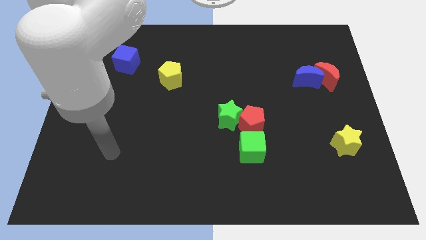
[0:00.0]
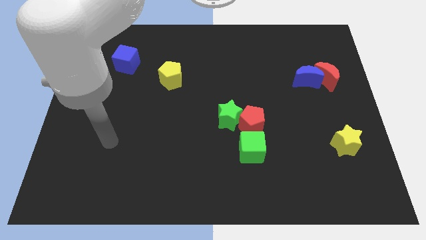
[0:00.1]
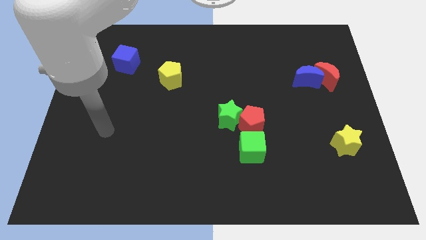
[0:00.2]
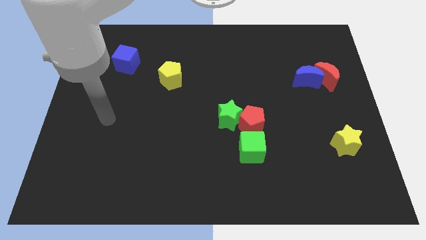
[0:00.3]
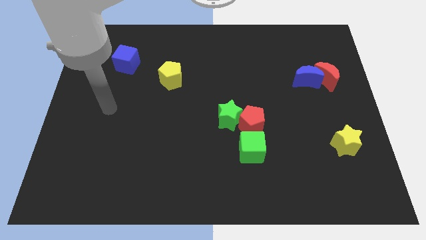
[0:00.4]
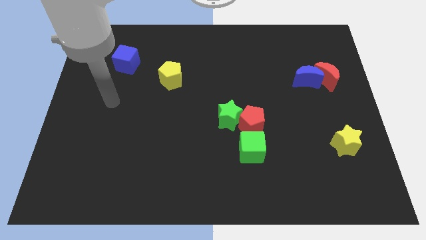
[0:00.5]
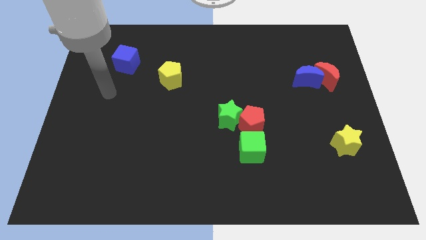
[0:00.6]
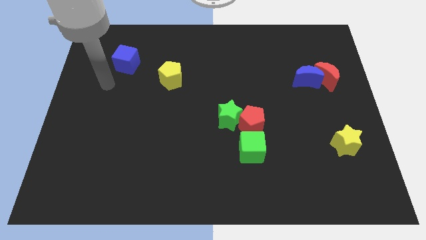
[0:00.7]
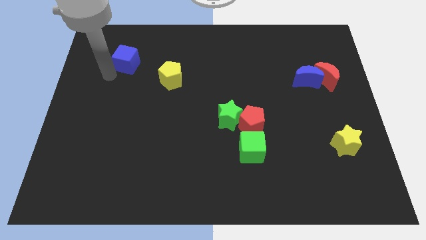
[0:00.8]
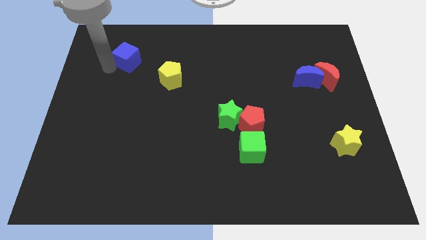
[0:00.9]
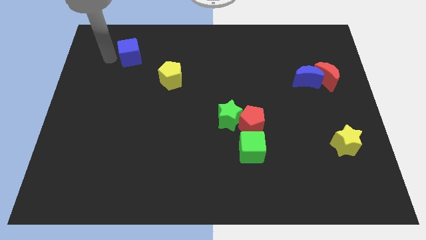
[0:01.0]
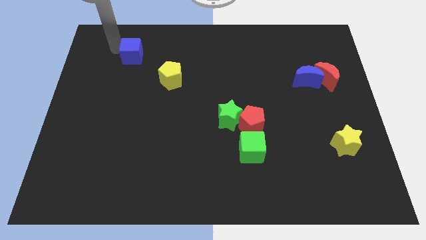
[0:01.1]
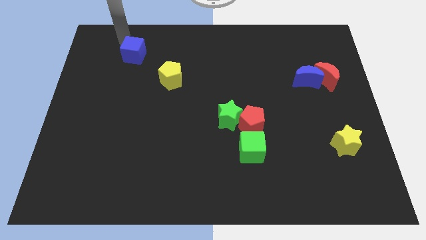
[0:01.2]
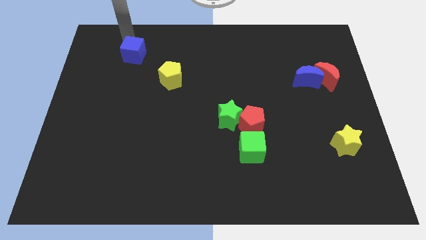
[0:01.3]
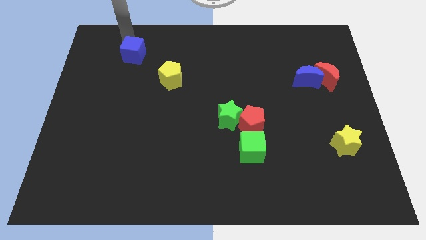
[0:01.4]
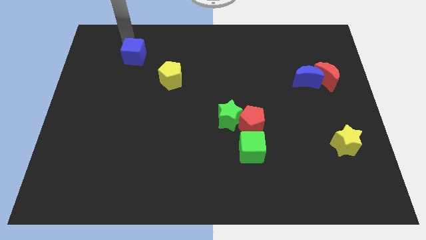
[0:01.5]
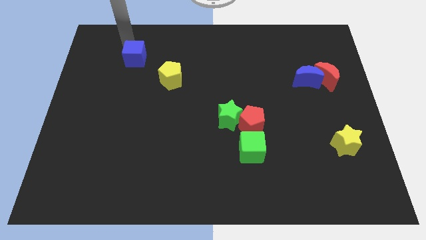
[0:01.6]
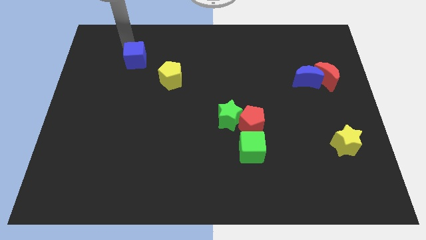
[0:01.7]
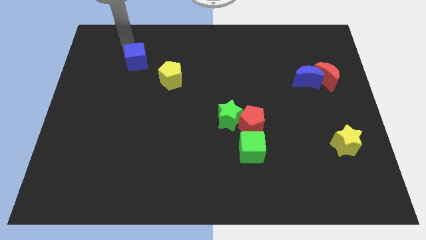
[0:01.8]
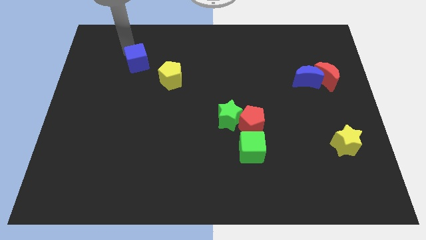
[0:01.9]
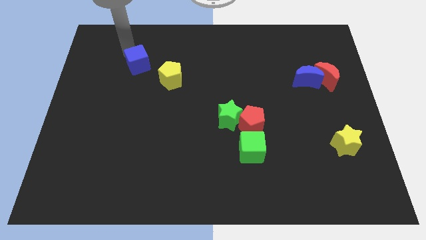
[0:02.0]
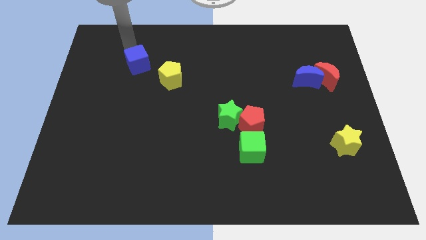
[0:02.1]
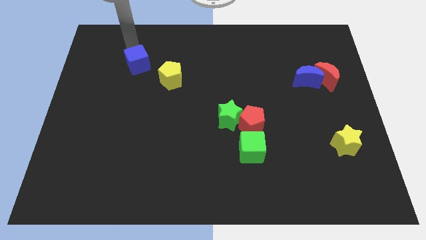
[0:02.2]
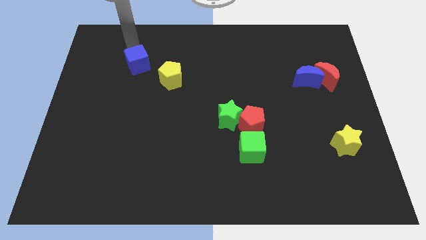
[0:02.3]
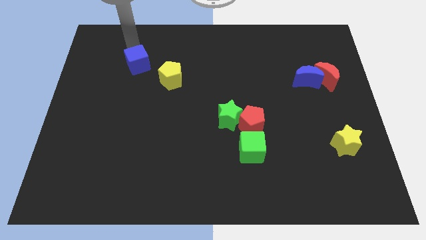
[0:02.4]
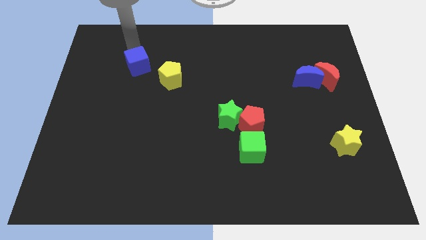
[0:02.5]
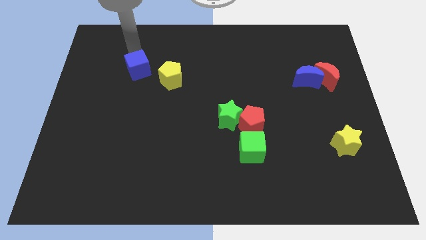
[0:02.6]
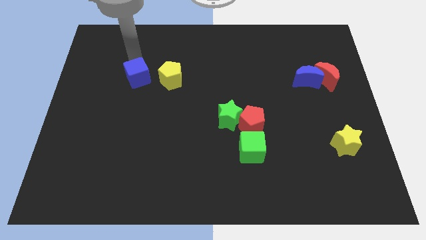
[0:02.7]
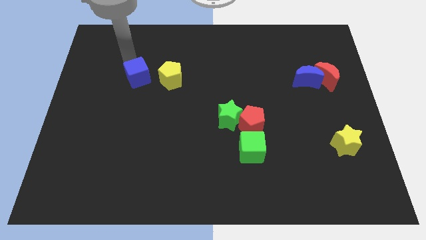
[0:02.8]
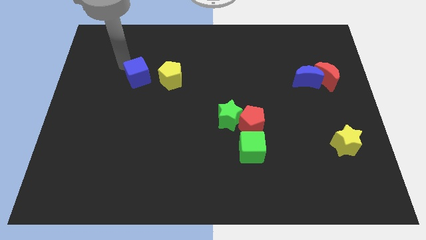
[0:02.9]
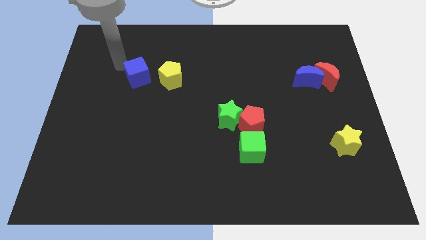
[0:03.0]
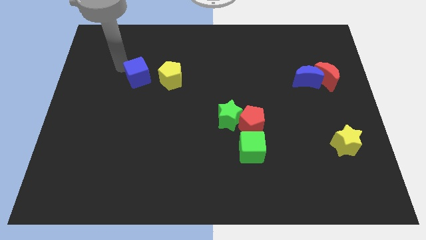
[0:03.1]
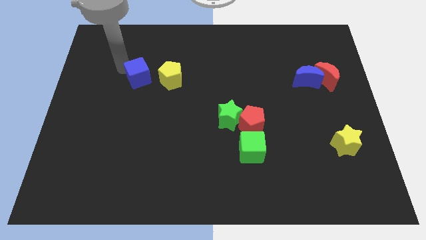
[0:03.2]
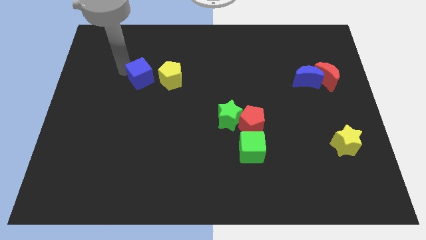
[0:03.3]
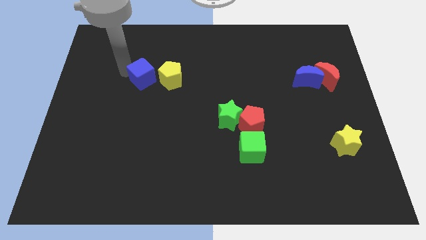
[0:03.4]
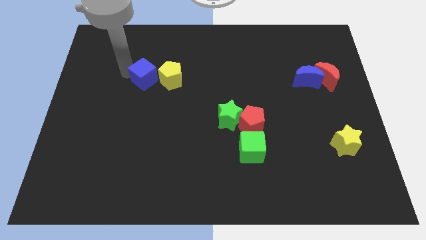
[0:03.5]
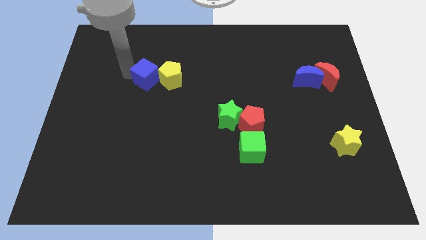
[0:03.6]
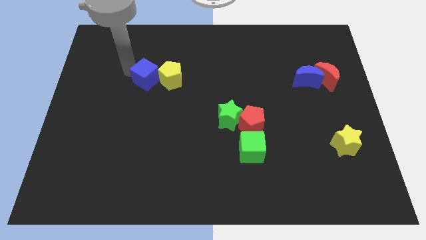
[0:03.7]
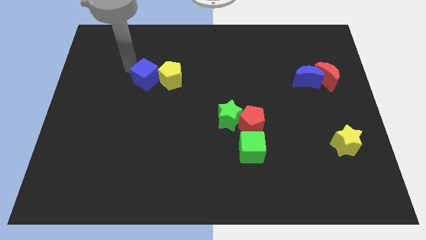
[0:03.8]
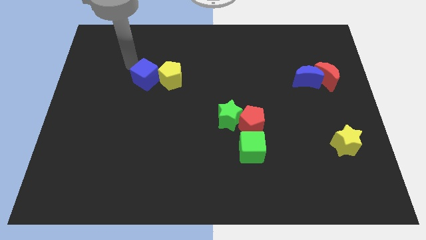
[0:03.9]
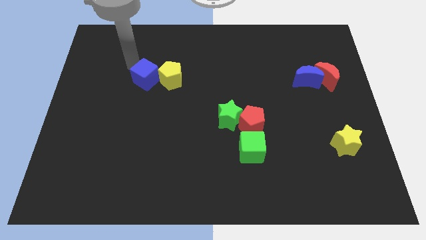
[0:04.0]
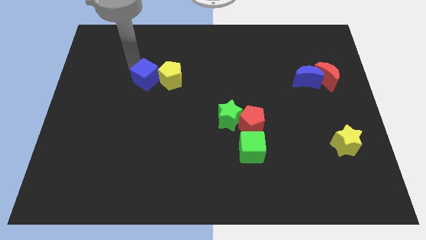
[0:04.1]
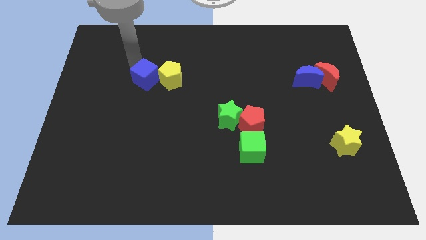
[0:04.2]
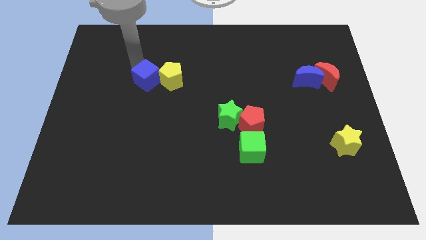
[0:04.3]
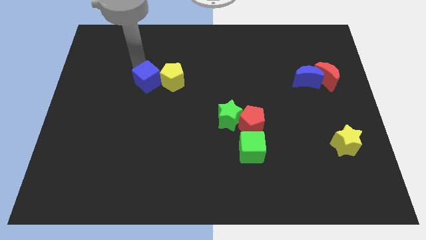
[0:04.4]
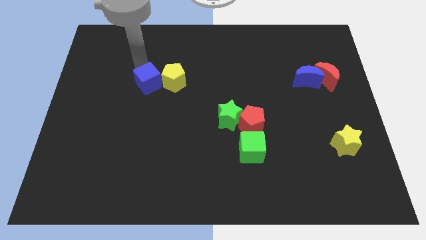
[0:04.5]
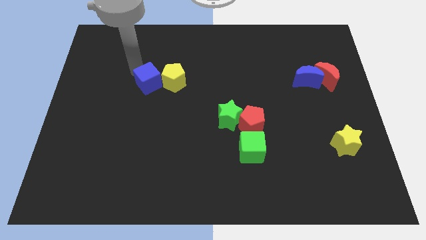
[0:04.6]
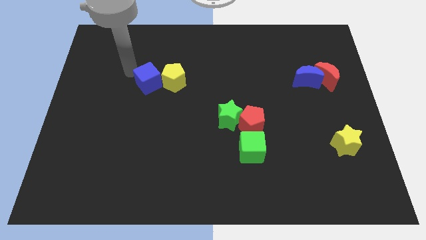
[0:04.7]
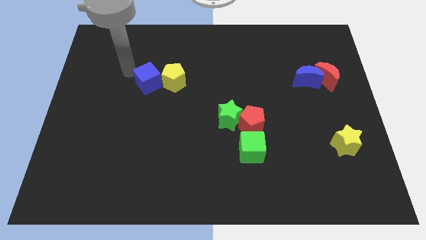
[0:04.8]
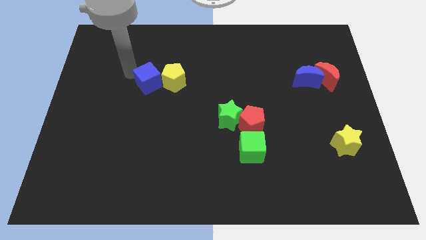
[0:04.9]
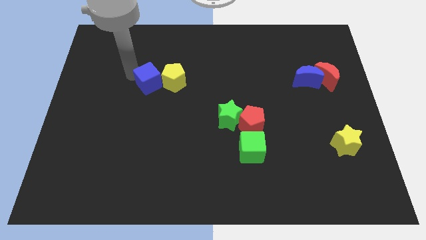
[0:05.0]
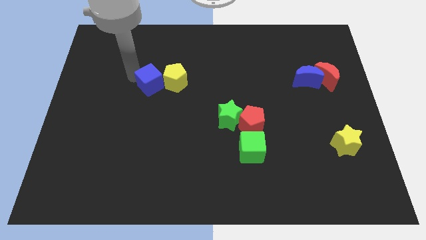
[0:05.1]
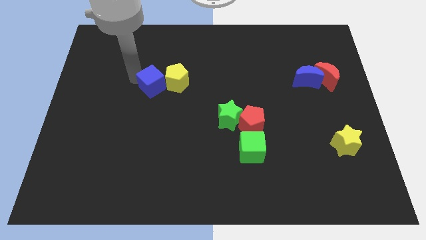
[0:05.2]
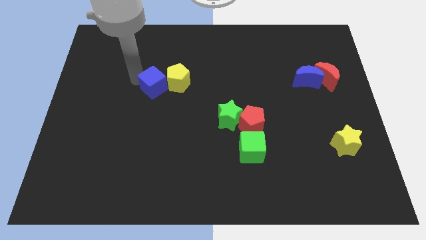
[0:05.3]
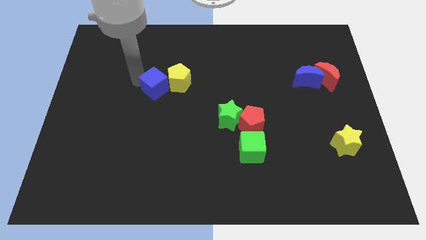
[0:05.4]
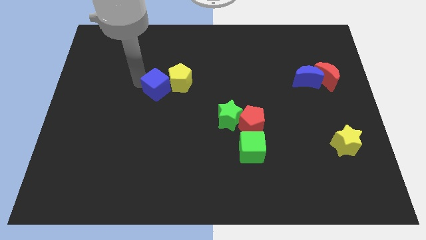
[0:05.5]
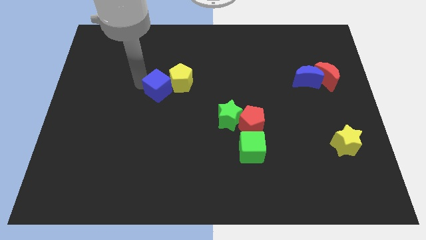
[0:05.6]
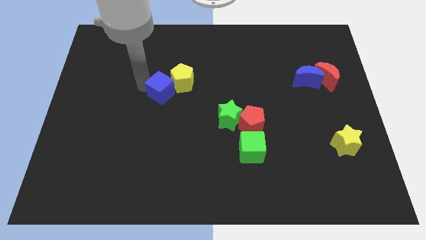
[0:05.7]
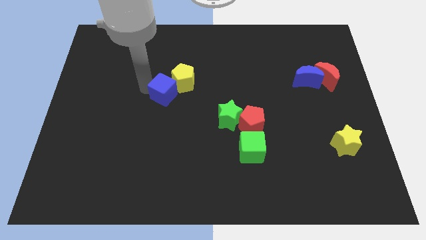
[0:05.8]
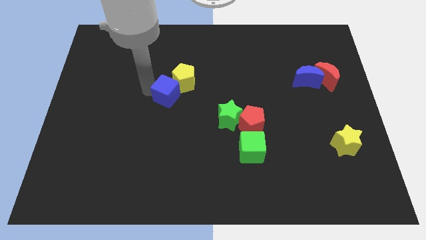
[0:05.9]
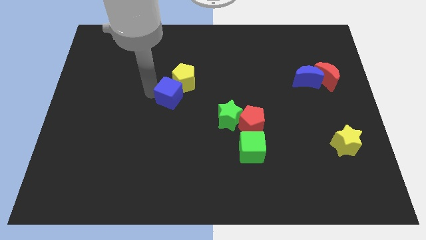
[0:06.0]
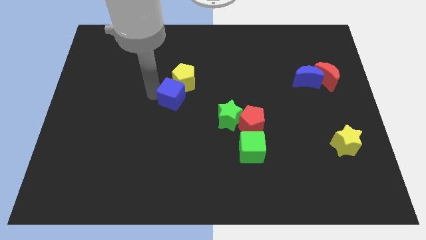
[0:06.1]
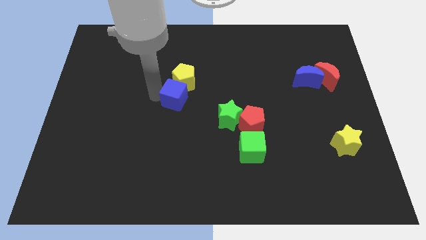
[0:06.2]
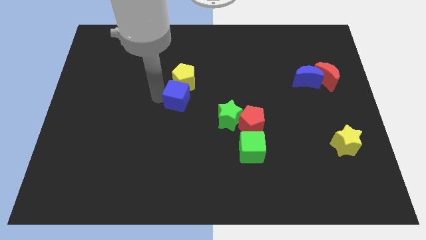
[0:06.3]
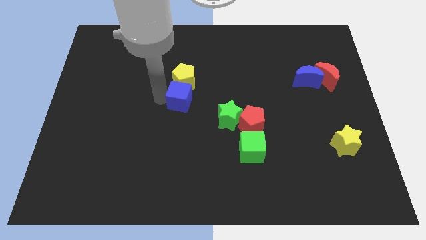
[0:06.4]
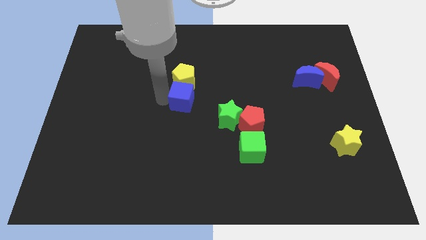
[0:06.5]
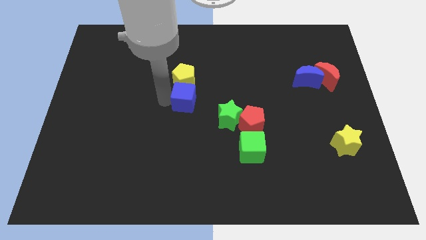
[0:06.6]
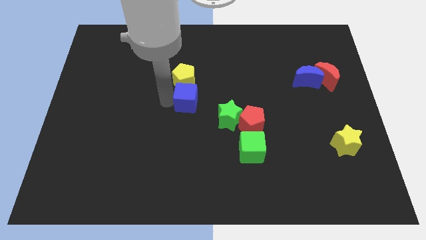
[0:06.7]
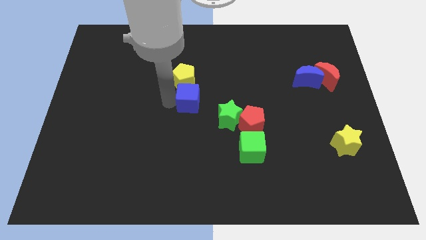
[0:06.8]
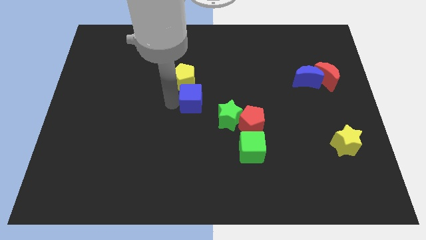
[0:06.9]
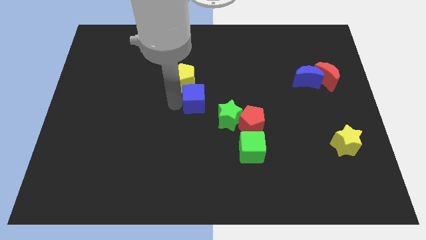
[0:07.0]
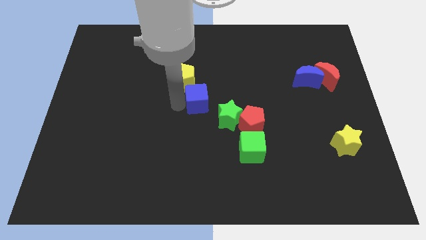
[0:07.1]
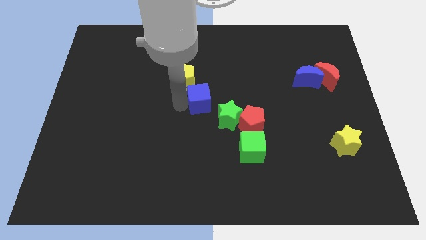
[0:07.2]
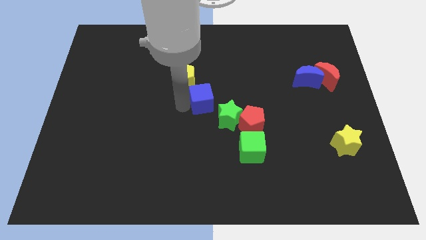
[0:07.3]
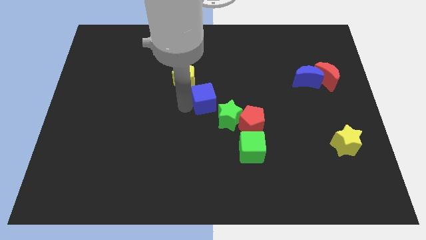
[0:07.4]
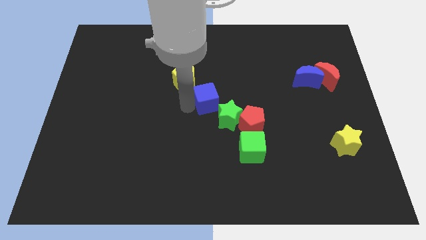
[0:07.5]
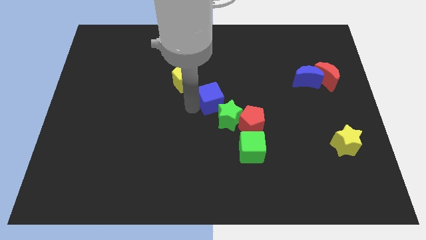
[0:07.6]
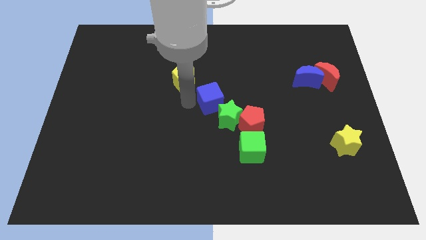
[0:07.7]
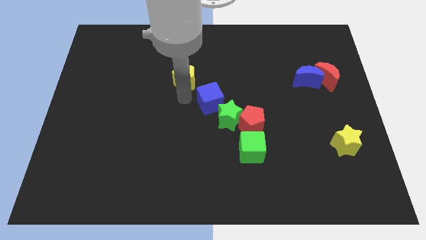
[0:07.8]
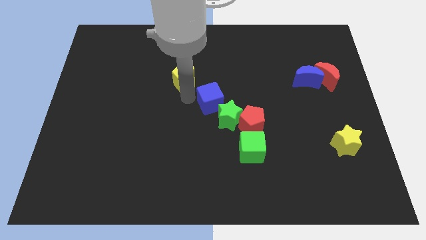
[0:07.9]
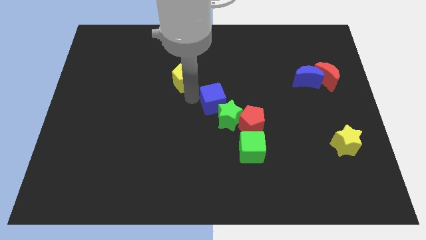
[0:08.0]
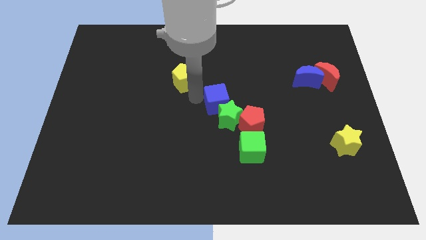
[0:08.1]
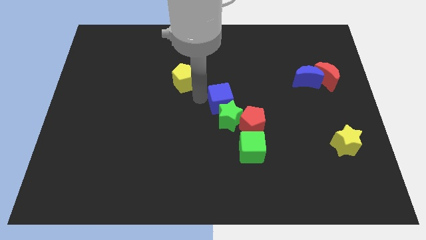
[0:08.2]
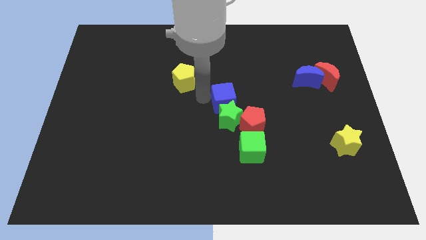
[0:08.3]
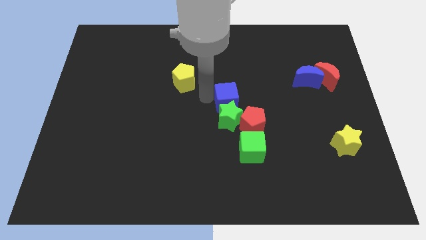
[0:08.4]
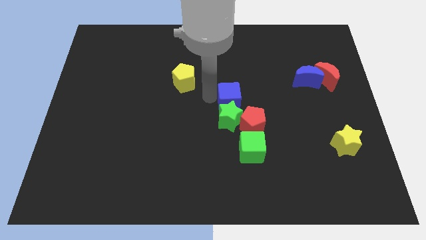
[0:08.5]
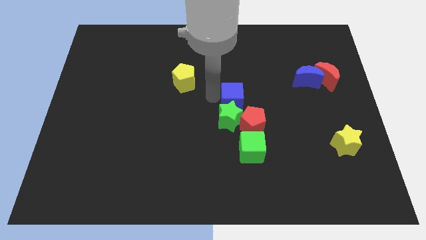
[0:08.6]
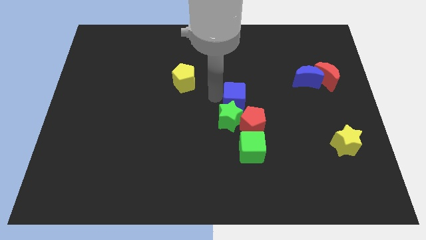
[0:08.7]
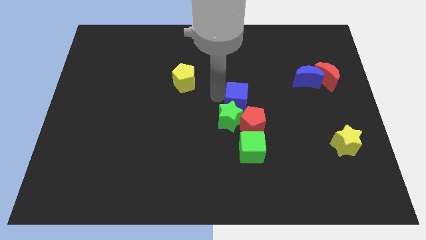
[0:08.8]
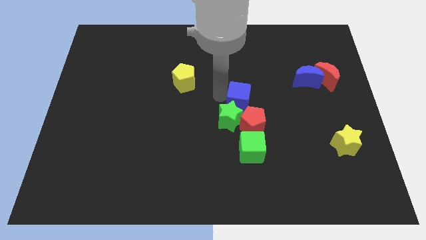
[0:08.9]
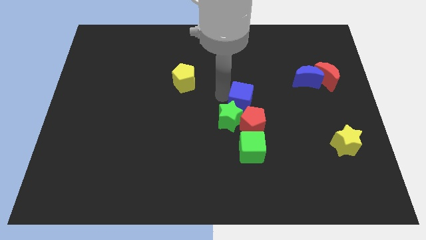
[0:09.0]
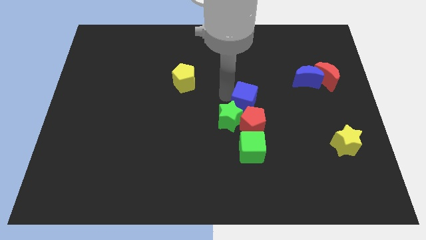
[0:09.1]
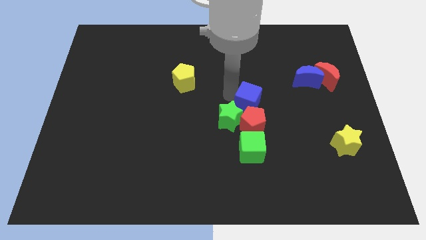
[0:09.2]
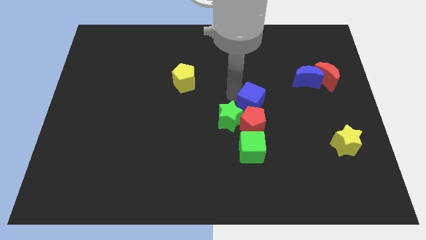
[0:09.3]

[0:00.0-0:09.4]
push the blue cube right of the green star
